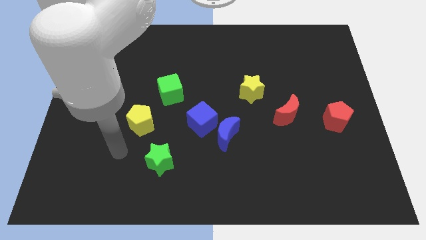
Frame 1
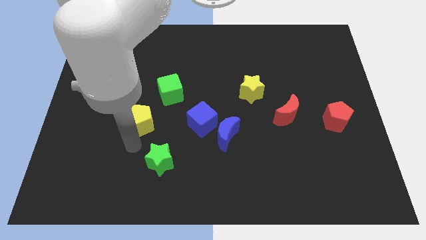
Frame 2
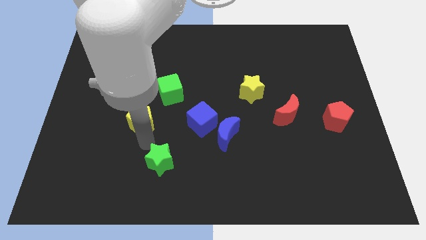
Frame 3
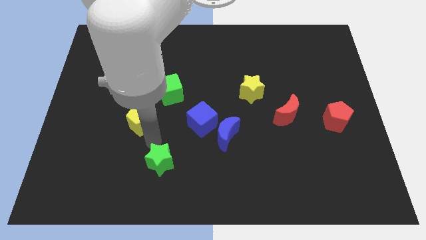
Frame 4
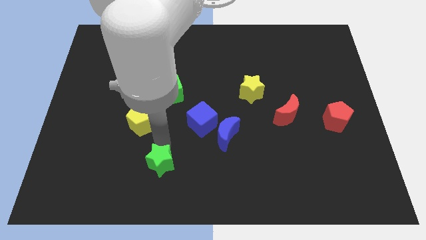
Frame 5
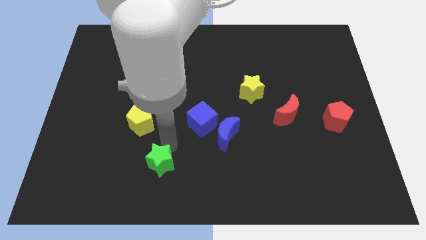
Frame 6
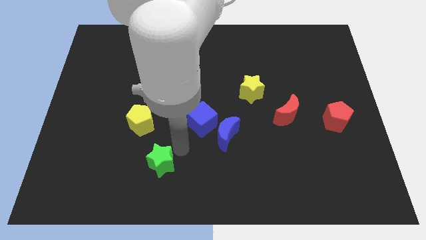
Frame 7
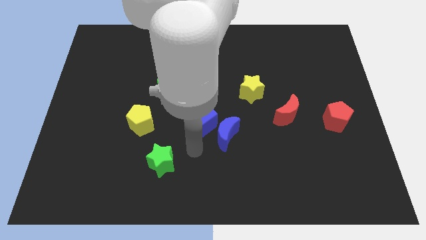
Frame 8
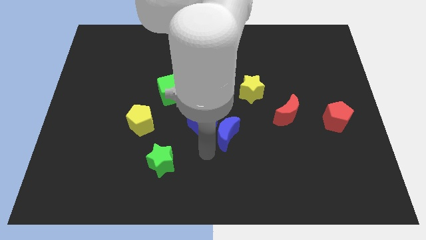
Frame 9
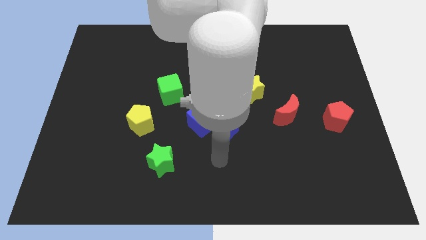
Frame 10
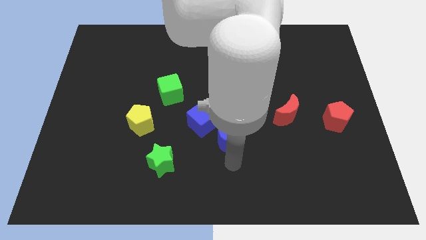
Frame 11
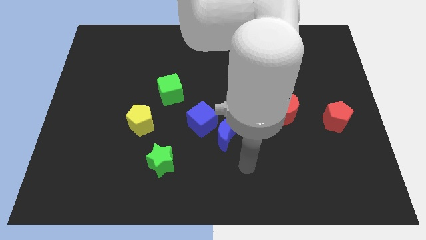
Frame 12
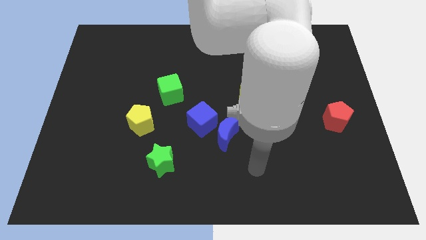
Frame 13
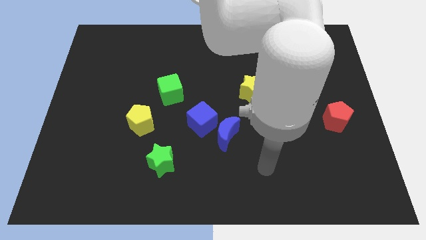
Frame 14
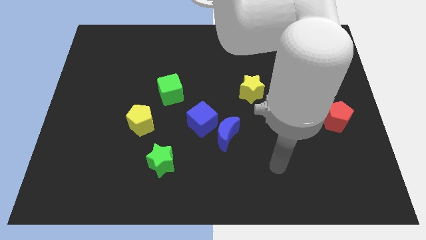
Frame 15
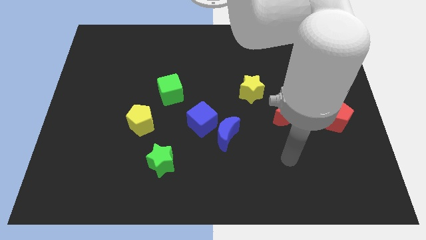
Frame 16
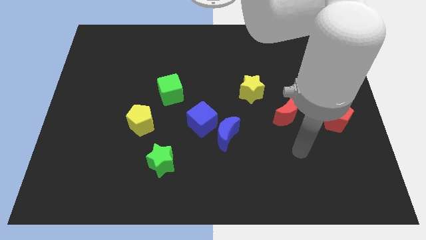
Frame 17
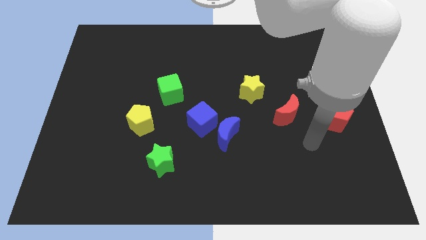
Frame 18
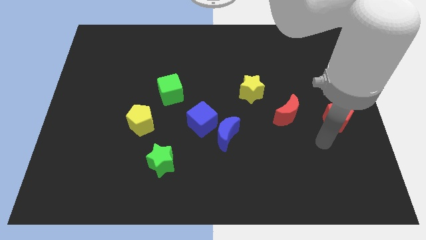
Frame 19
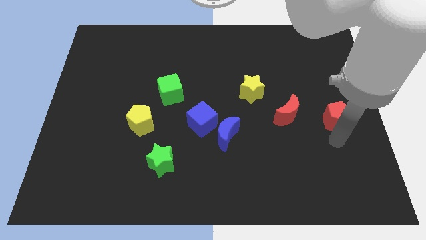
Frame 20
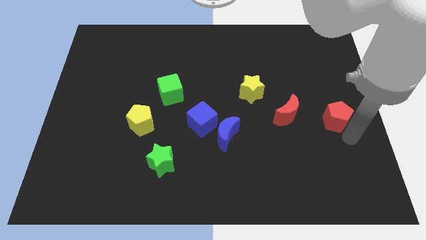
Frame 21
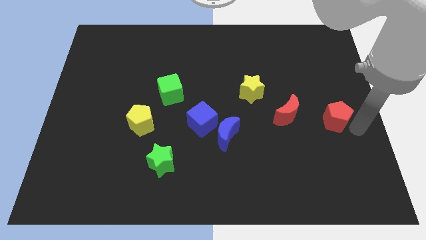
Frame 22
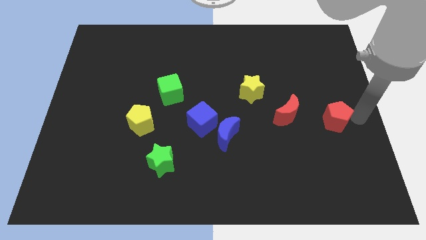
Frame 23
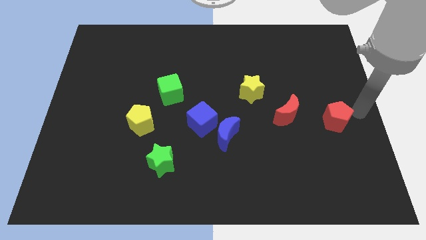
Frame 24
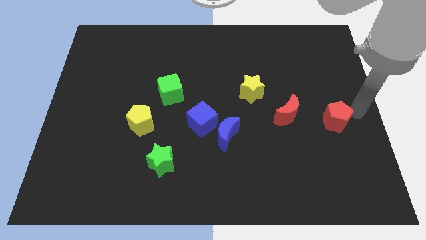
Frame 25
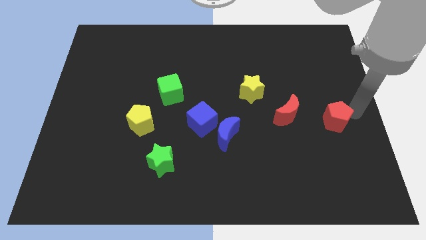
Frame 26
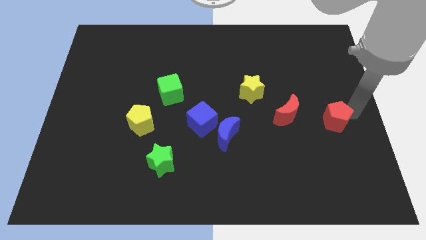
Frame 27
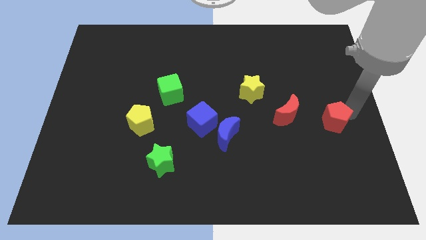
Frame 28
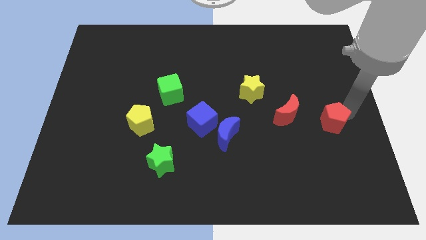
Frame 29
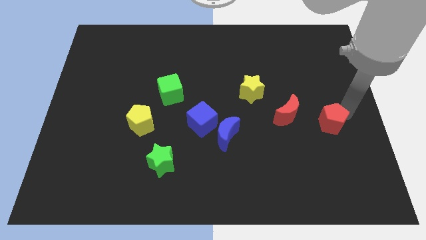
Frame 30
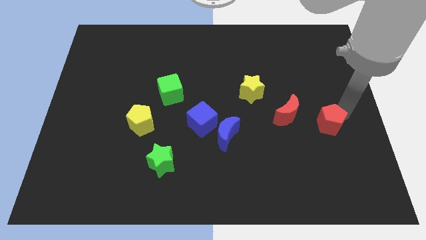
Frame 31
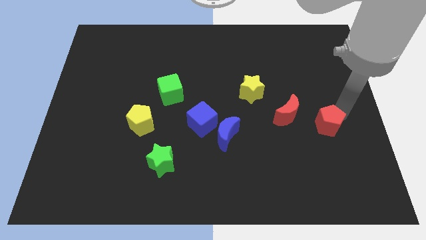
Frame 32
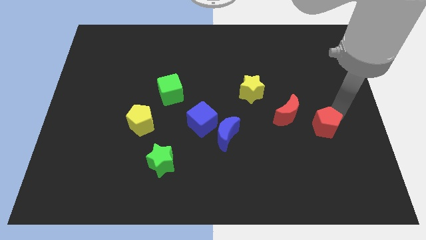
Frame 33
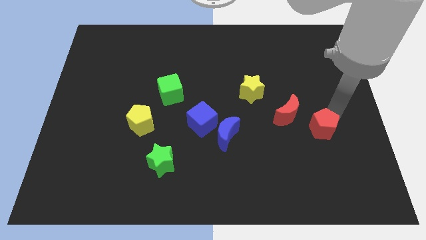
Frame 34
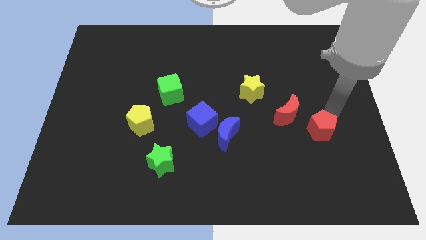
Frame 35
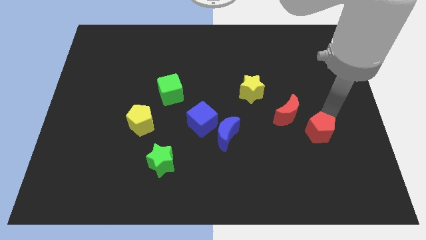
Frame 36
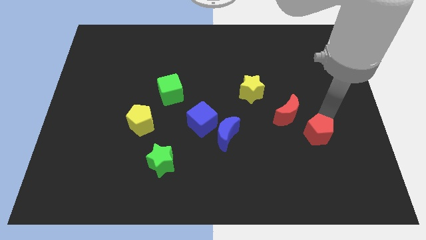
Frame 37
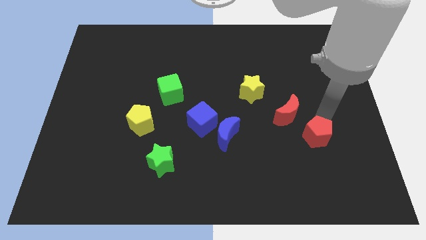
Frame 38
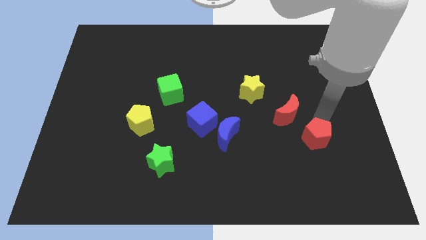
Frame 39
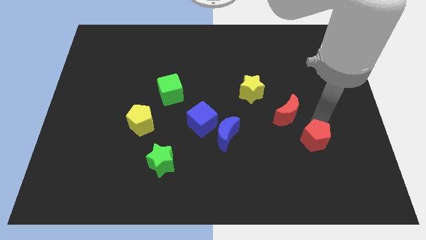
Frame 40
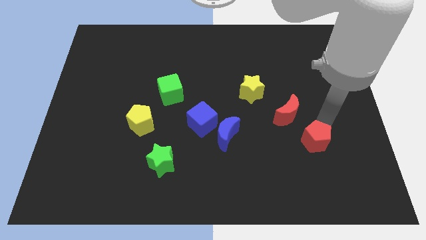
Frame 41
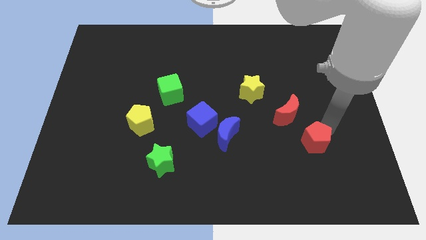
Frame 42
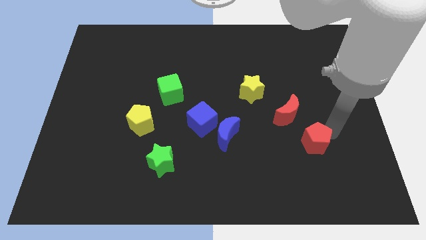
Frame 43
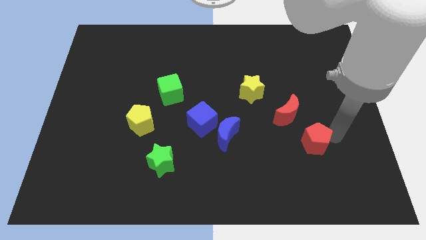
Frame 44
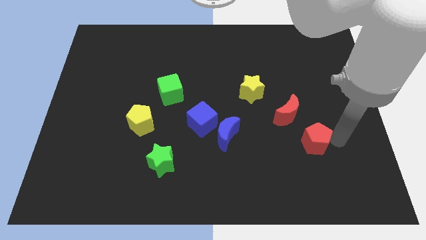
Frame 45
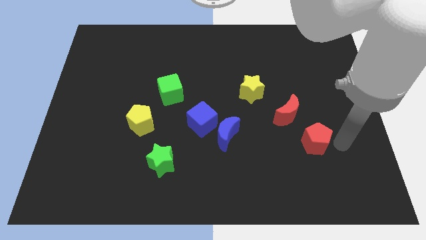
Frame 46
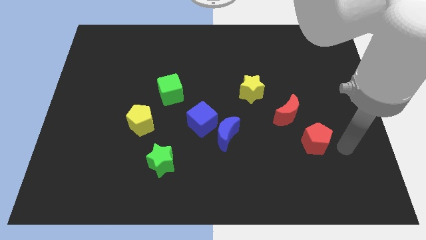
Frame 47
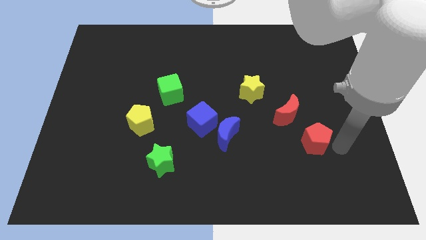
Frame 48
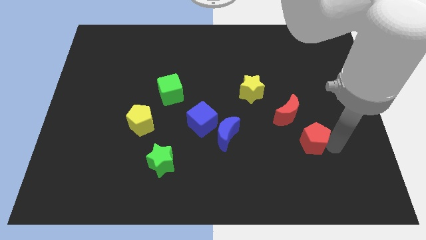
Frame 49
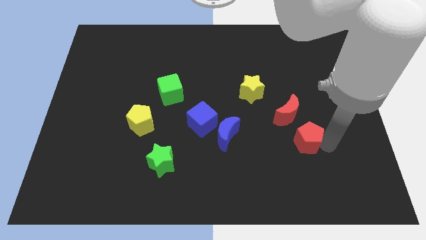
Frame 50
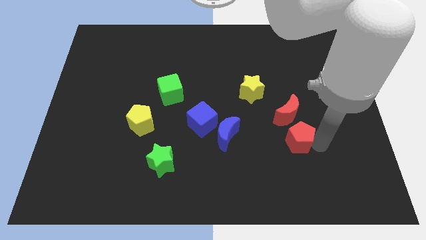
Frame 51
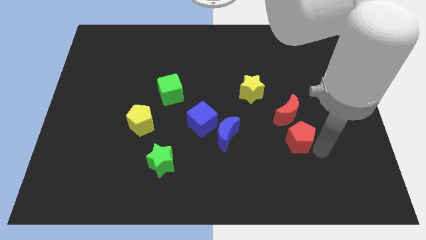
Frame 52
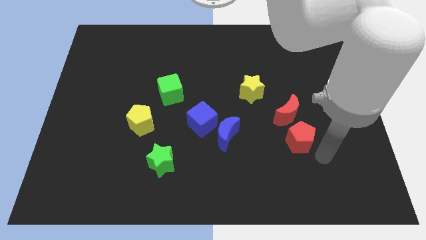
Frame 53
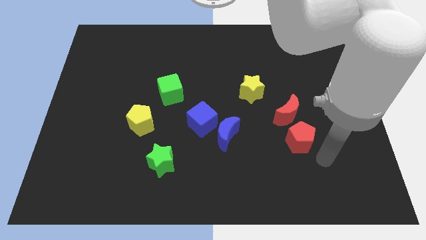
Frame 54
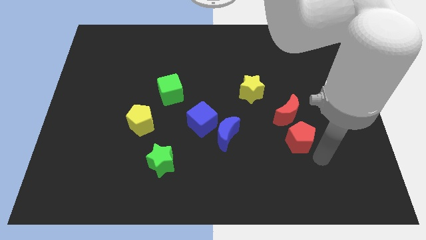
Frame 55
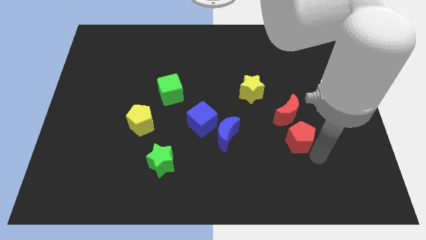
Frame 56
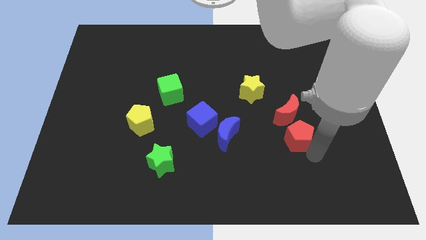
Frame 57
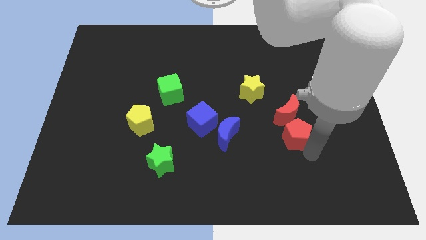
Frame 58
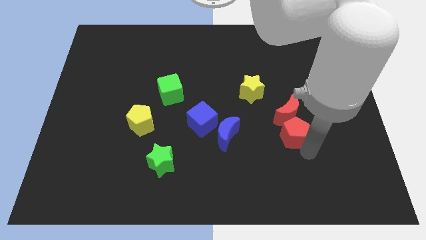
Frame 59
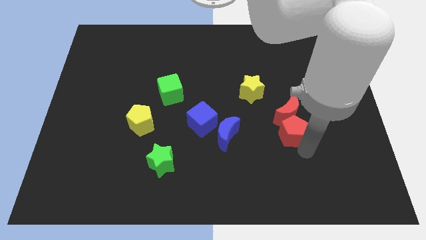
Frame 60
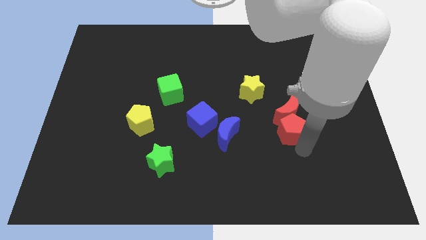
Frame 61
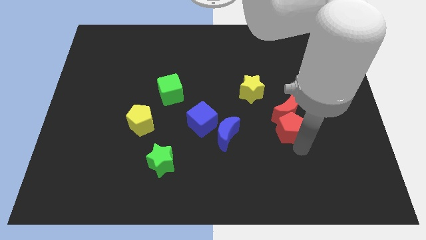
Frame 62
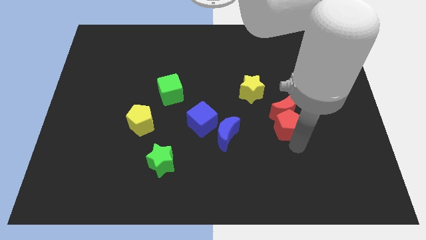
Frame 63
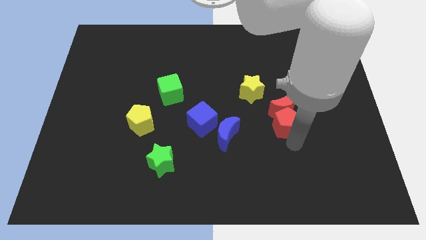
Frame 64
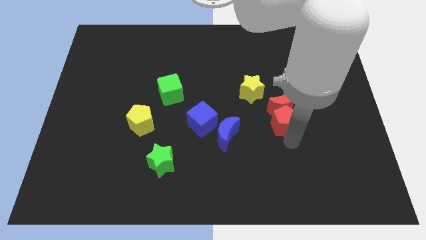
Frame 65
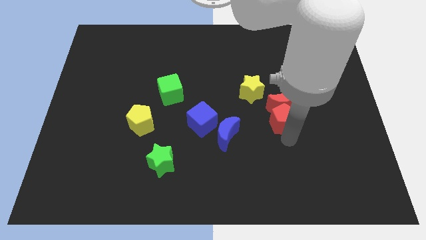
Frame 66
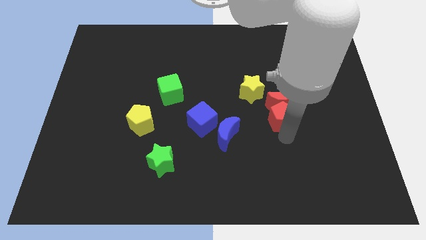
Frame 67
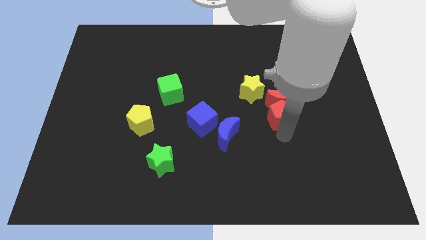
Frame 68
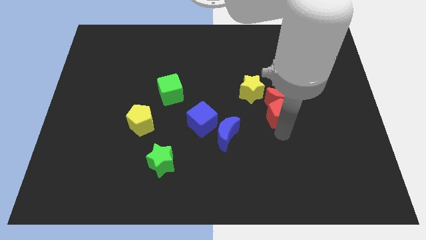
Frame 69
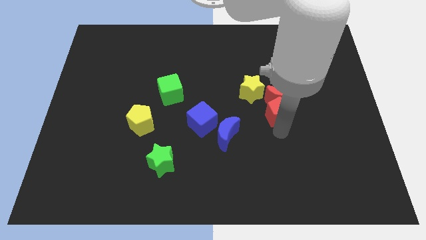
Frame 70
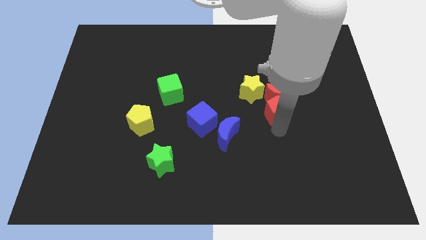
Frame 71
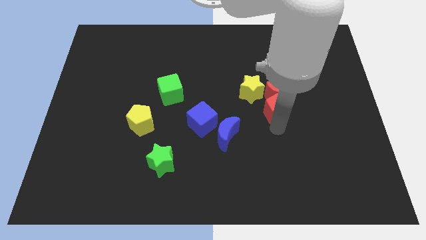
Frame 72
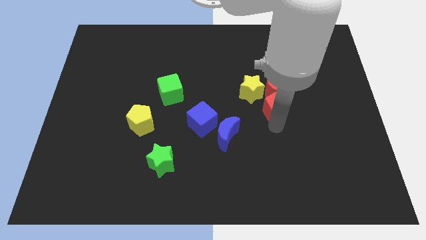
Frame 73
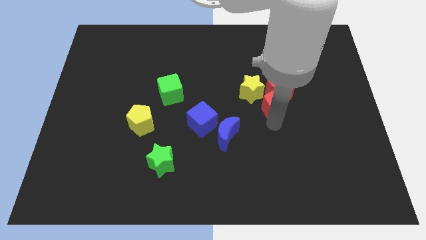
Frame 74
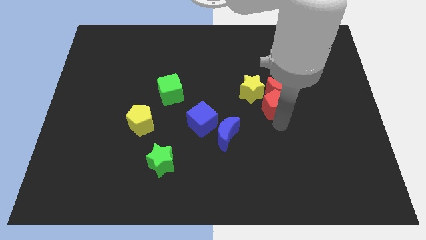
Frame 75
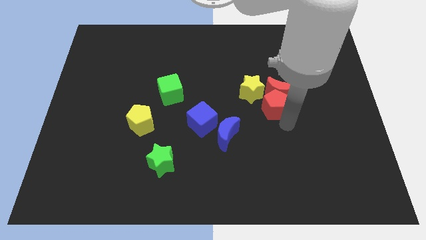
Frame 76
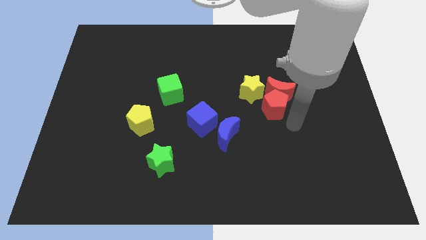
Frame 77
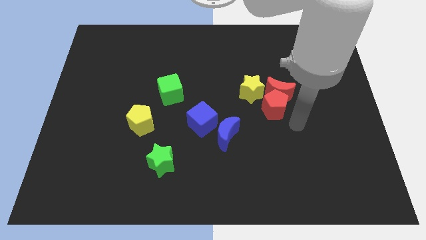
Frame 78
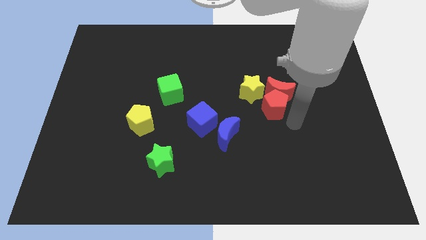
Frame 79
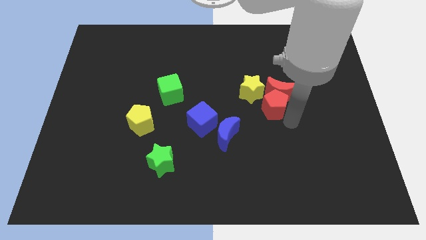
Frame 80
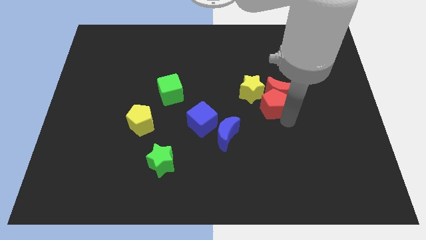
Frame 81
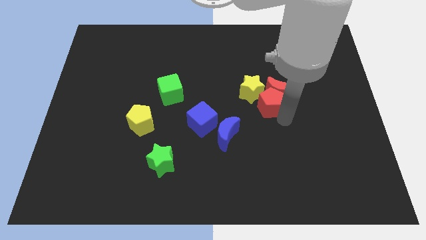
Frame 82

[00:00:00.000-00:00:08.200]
put the red pentagon close to the yellow star
